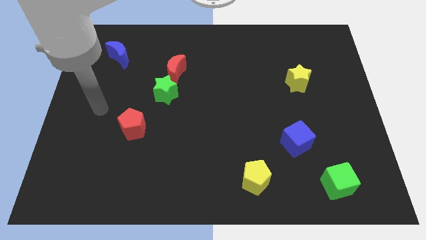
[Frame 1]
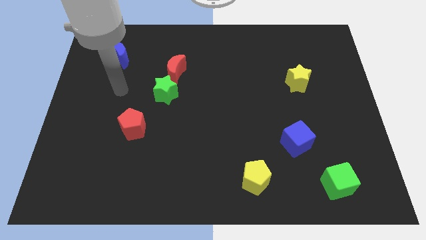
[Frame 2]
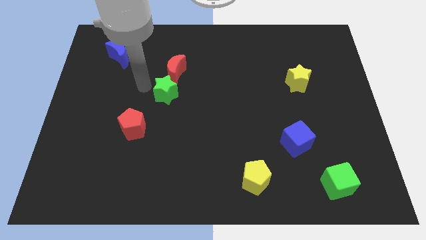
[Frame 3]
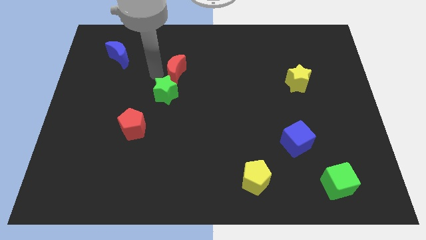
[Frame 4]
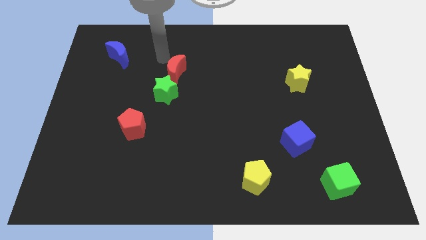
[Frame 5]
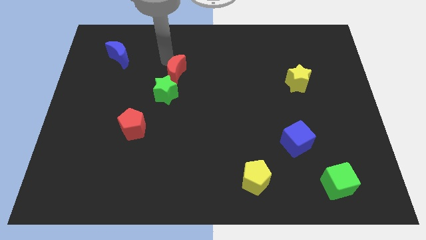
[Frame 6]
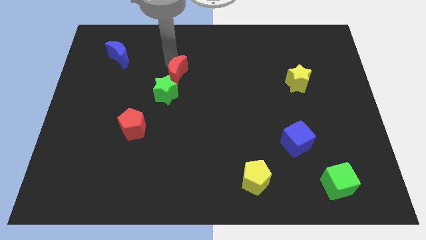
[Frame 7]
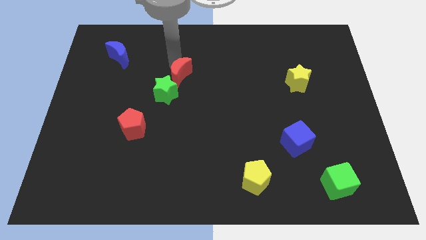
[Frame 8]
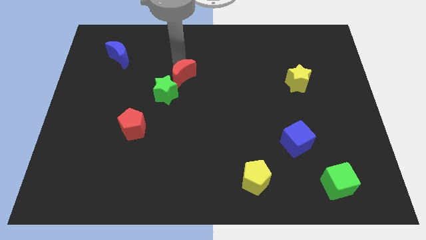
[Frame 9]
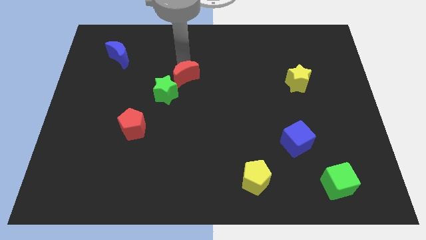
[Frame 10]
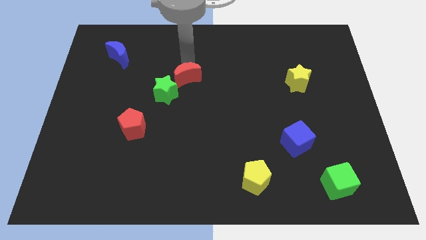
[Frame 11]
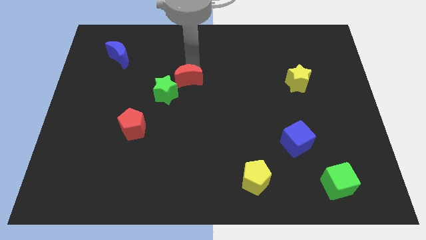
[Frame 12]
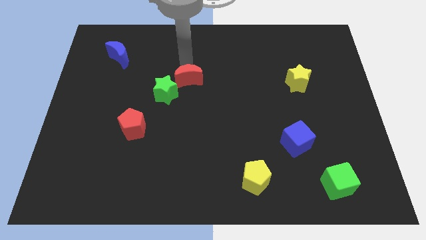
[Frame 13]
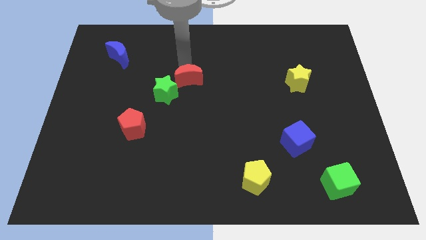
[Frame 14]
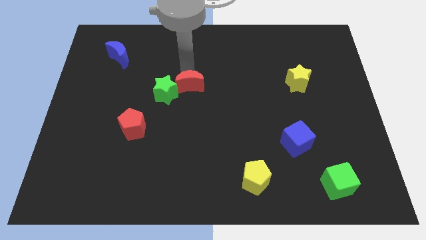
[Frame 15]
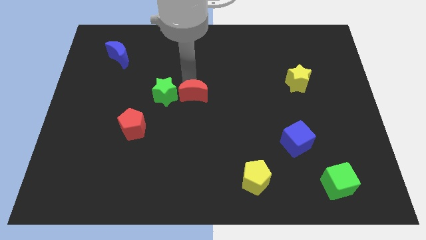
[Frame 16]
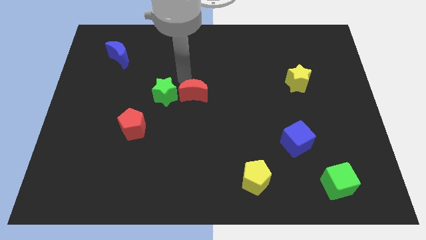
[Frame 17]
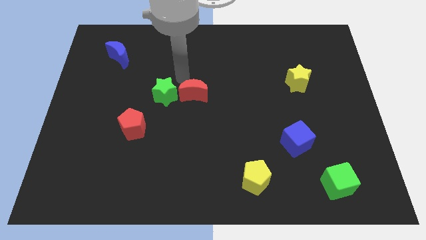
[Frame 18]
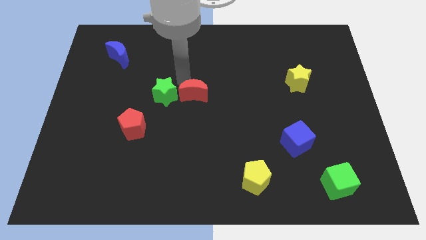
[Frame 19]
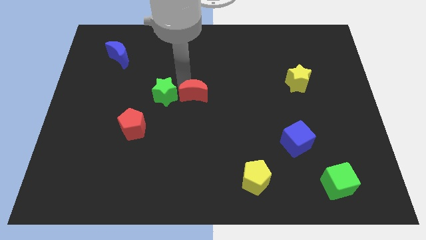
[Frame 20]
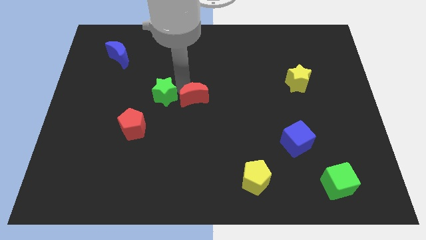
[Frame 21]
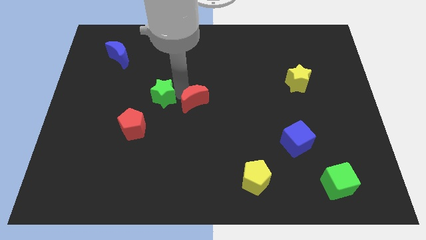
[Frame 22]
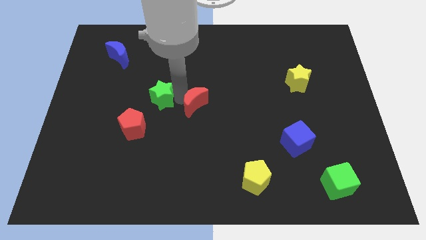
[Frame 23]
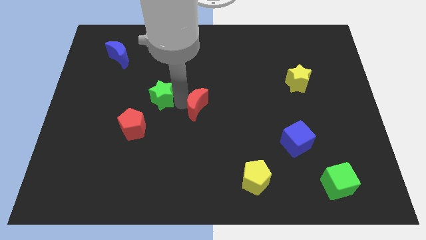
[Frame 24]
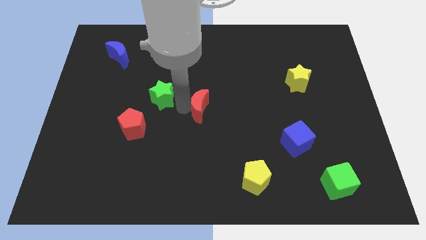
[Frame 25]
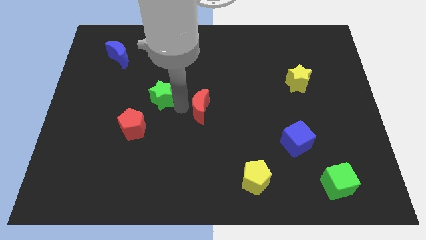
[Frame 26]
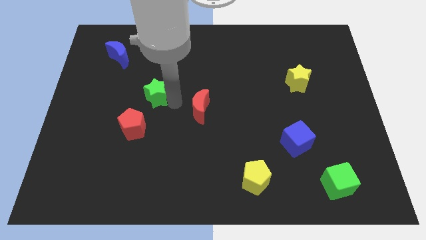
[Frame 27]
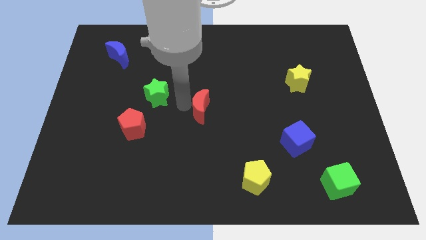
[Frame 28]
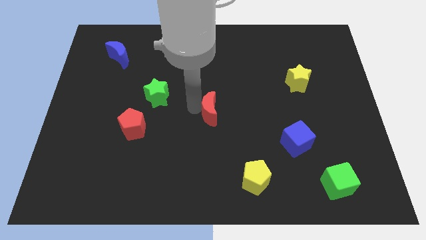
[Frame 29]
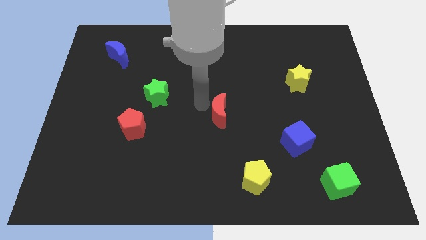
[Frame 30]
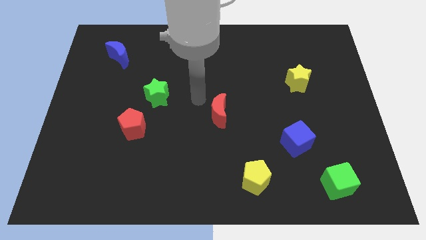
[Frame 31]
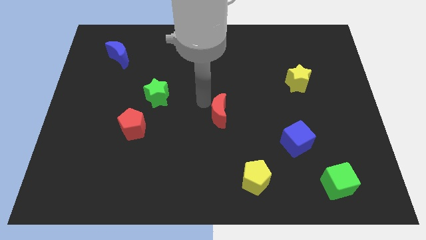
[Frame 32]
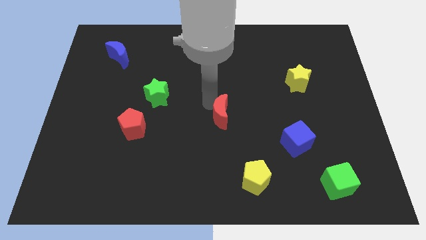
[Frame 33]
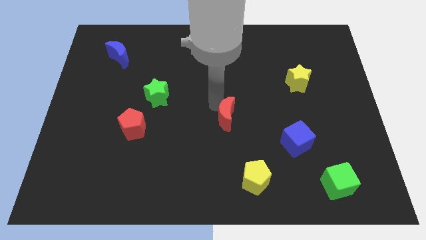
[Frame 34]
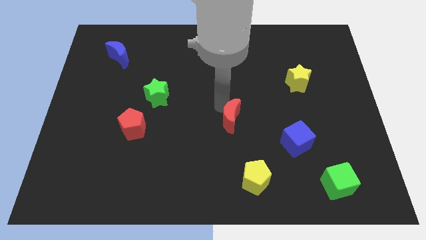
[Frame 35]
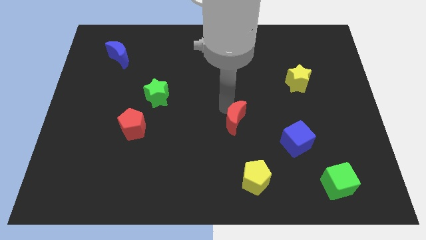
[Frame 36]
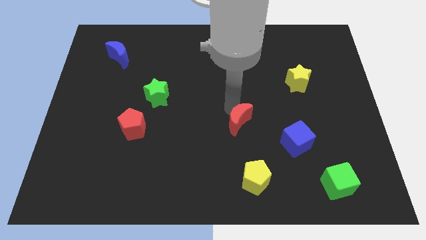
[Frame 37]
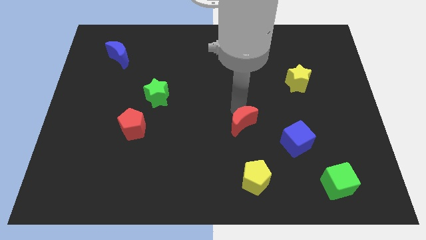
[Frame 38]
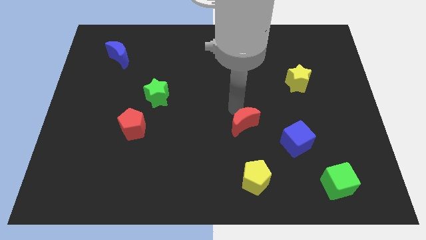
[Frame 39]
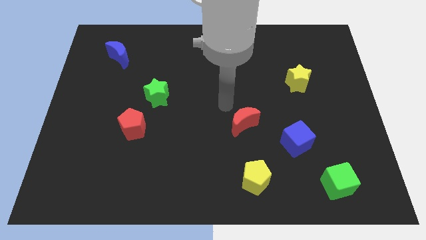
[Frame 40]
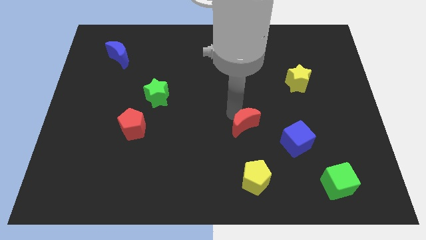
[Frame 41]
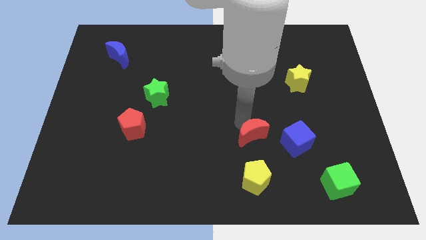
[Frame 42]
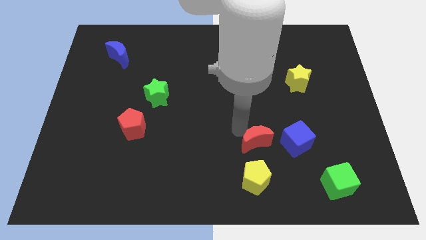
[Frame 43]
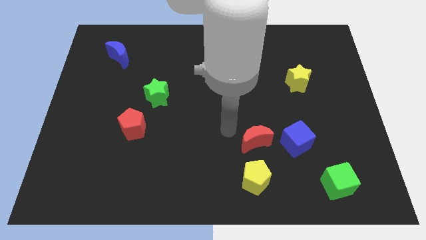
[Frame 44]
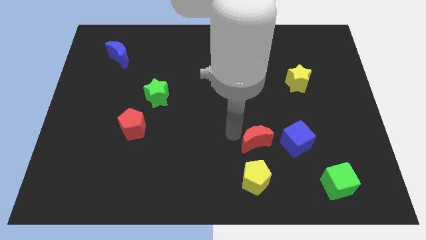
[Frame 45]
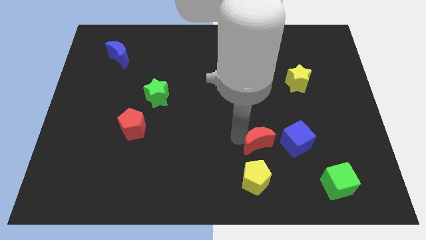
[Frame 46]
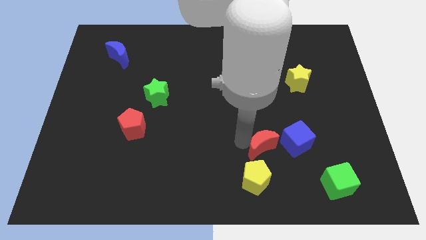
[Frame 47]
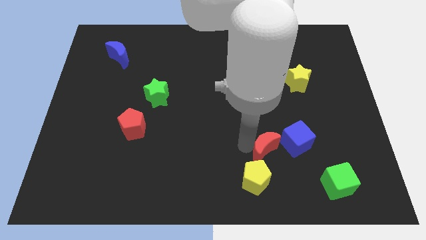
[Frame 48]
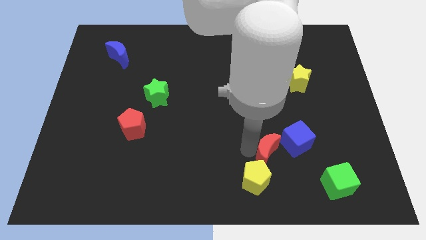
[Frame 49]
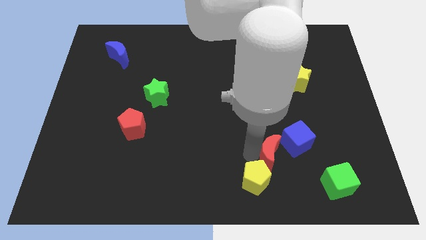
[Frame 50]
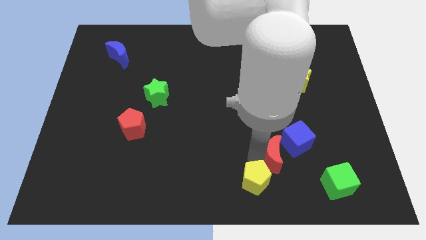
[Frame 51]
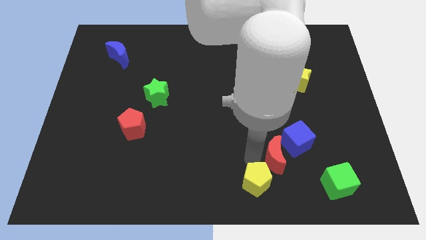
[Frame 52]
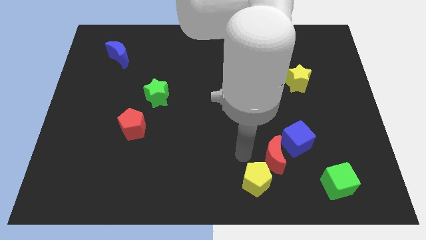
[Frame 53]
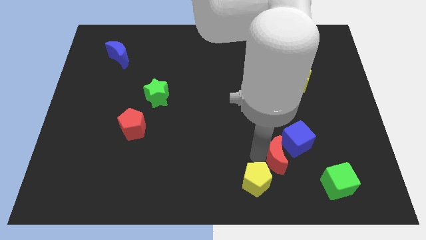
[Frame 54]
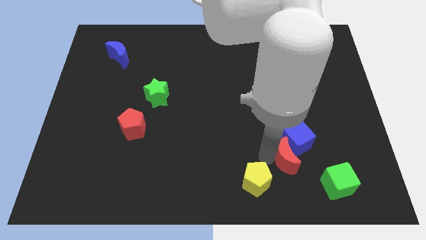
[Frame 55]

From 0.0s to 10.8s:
put the red moon to the top left of the green cube

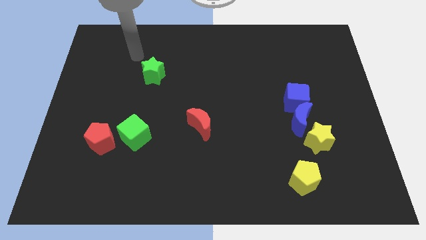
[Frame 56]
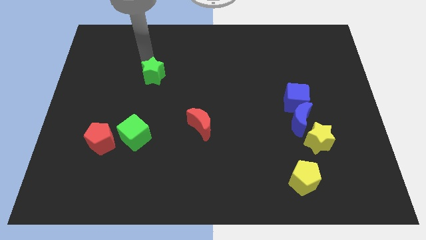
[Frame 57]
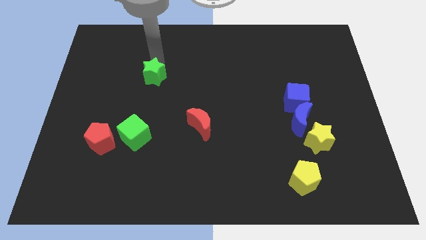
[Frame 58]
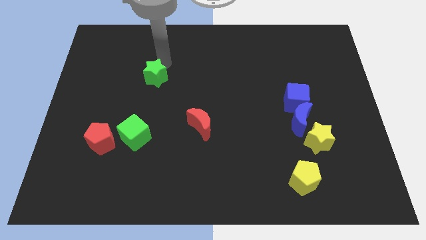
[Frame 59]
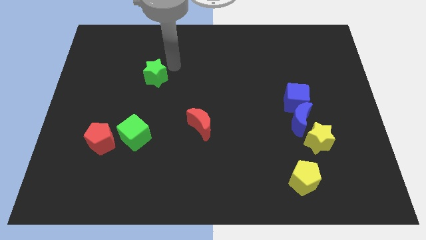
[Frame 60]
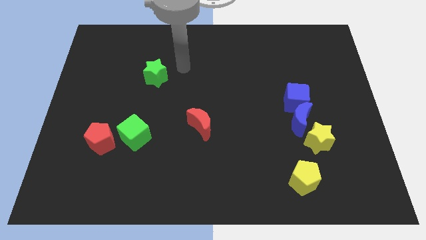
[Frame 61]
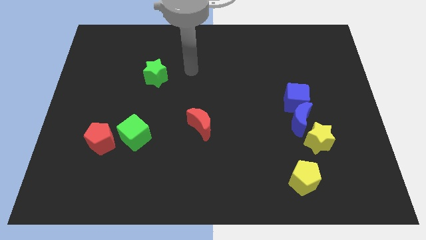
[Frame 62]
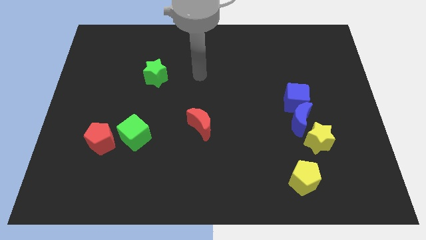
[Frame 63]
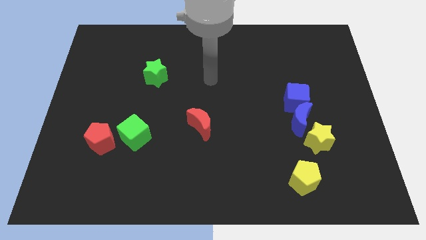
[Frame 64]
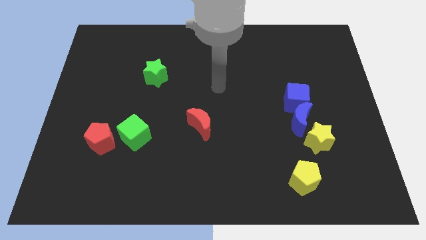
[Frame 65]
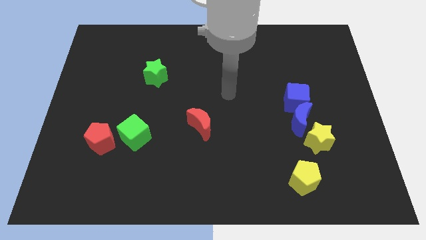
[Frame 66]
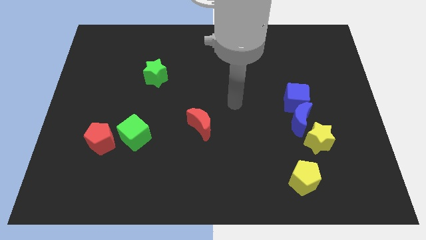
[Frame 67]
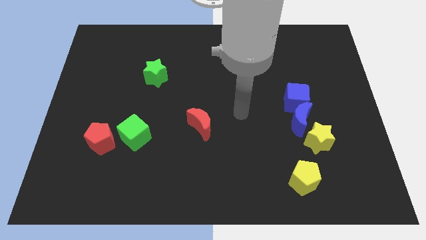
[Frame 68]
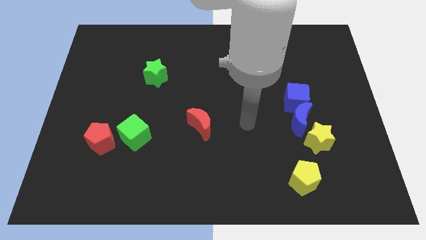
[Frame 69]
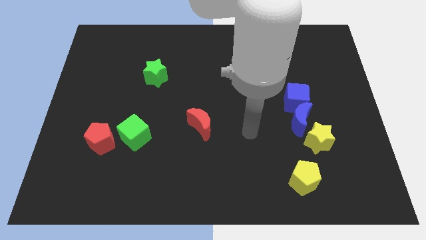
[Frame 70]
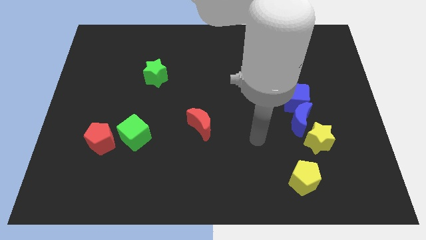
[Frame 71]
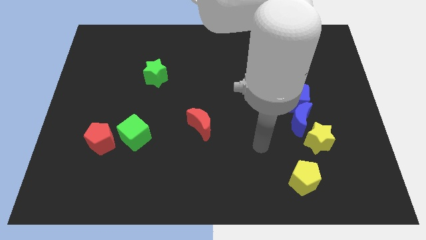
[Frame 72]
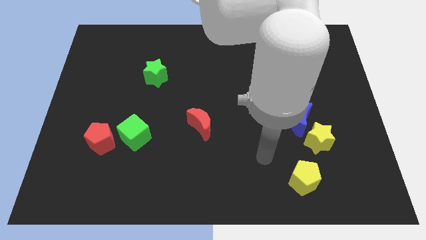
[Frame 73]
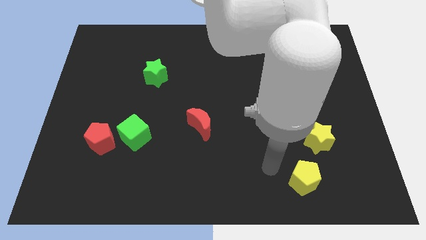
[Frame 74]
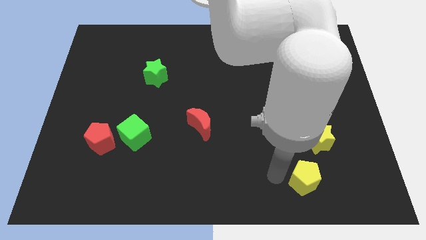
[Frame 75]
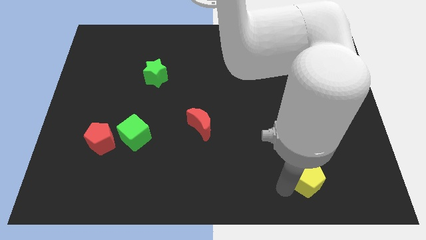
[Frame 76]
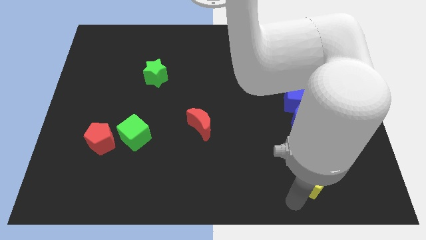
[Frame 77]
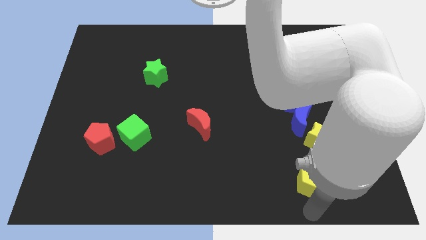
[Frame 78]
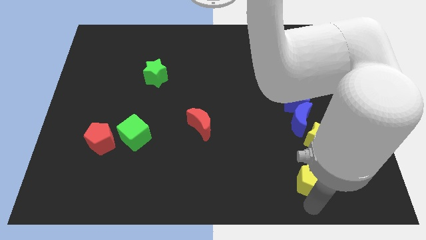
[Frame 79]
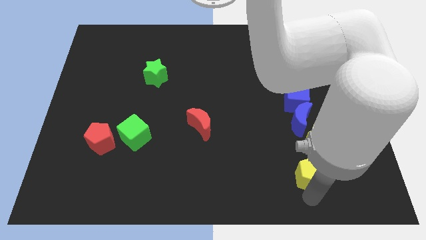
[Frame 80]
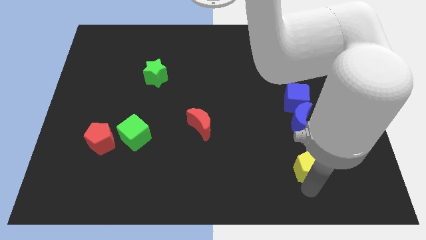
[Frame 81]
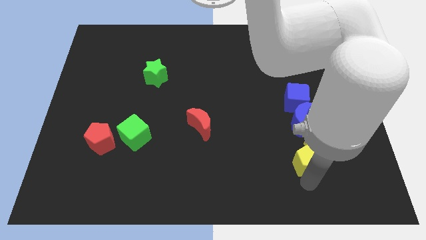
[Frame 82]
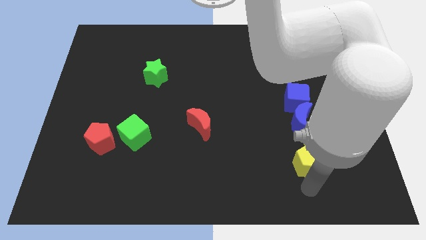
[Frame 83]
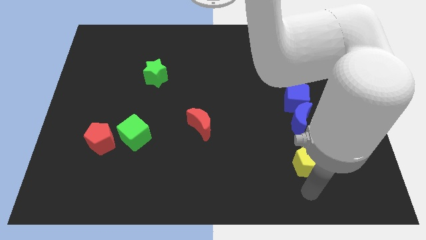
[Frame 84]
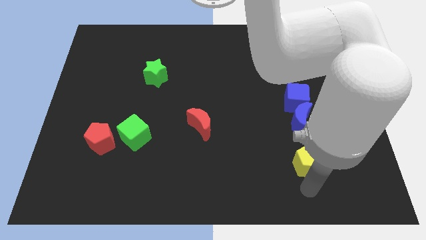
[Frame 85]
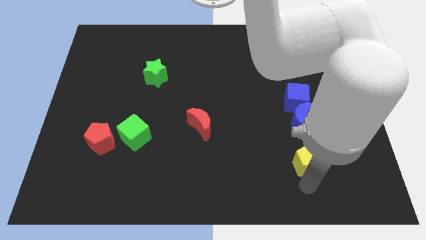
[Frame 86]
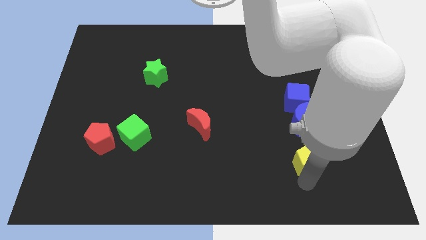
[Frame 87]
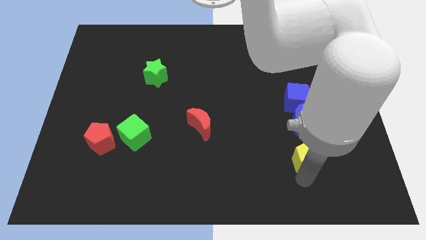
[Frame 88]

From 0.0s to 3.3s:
push the yellow pentagon to the bottom of the blue cube
